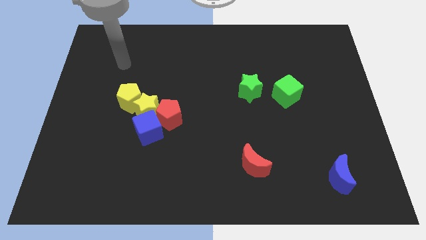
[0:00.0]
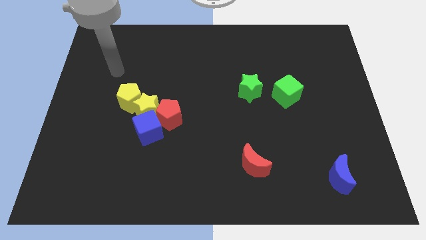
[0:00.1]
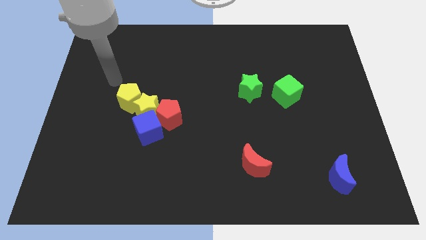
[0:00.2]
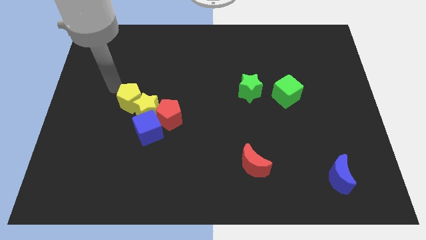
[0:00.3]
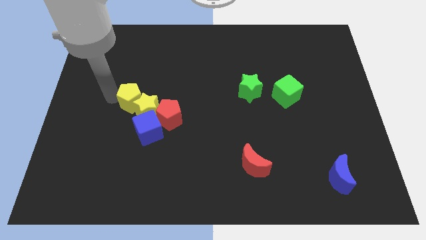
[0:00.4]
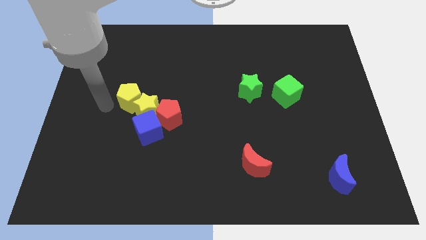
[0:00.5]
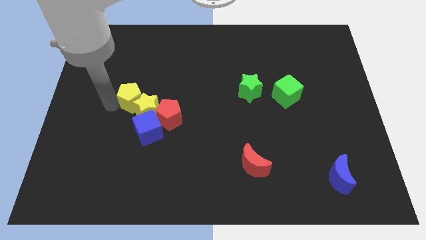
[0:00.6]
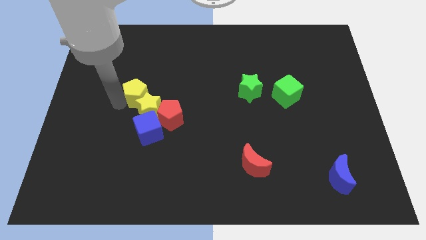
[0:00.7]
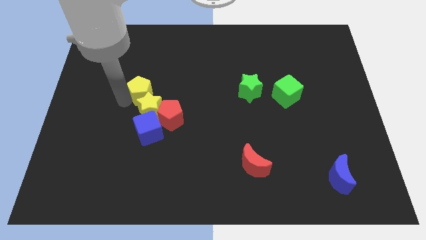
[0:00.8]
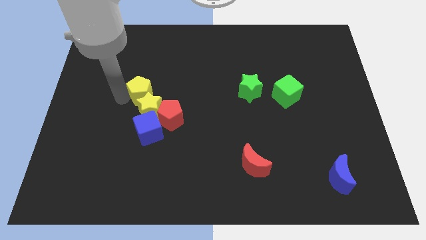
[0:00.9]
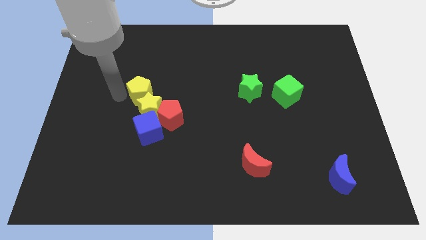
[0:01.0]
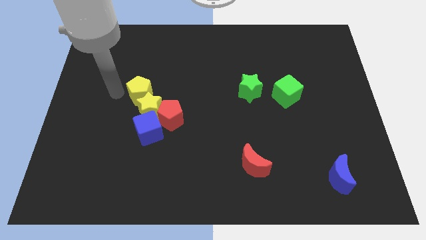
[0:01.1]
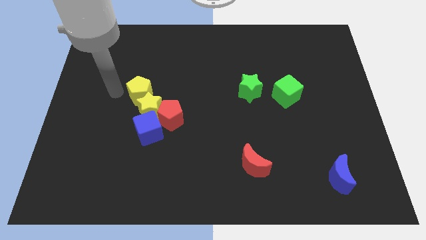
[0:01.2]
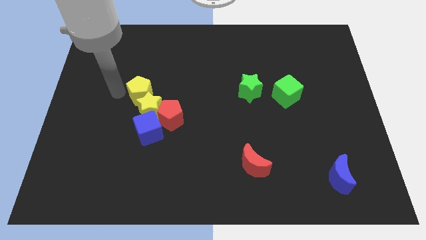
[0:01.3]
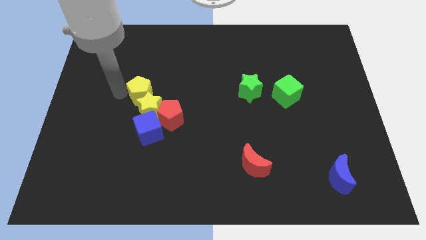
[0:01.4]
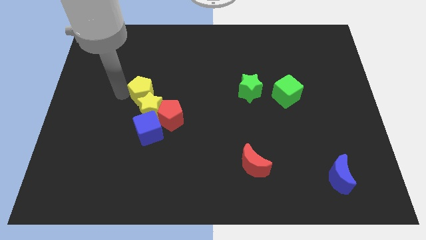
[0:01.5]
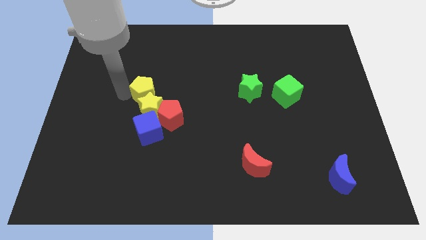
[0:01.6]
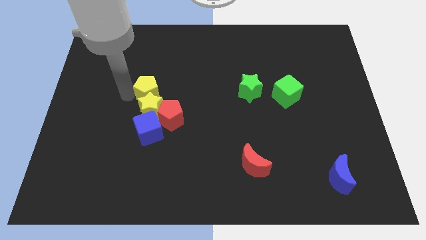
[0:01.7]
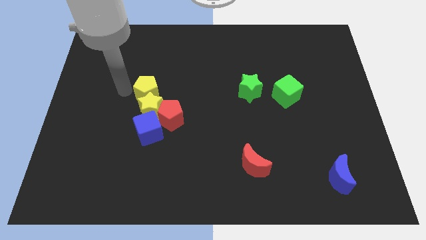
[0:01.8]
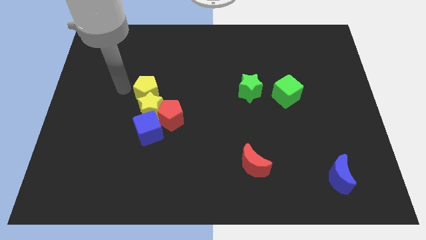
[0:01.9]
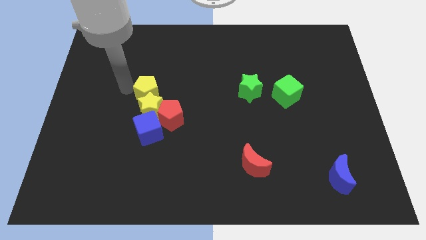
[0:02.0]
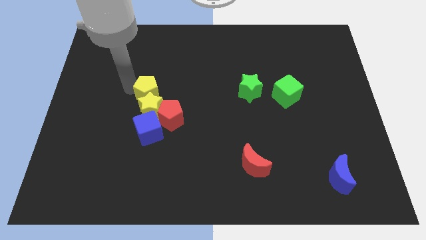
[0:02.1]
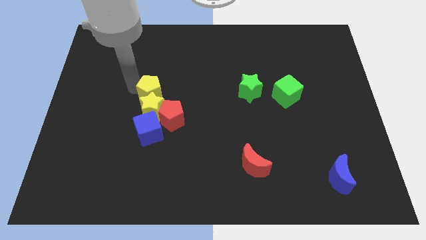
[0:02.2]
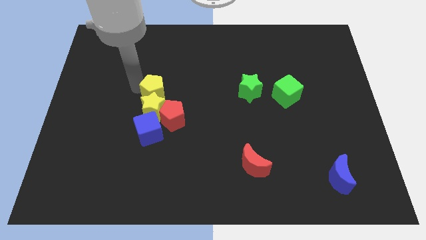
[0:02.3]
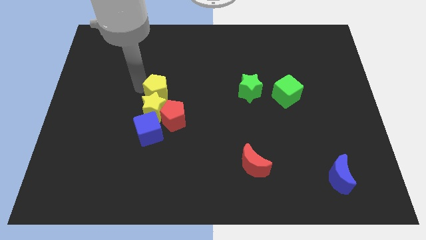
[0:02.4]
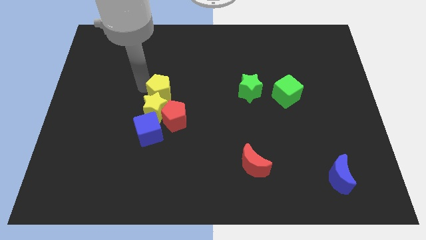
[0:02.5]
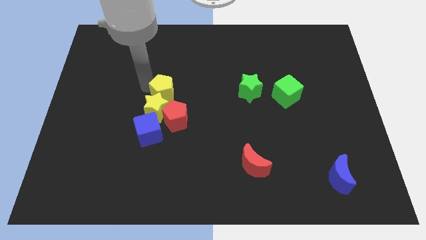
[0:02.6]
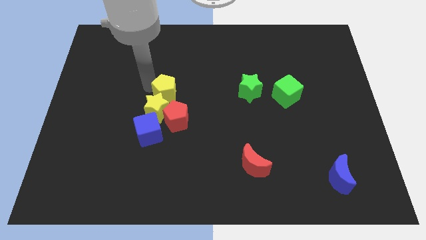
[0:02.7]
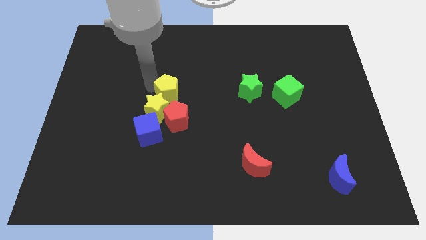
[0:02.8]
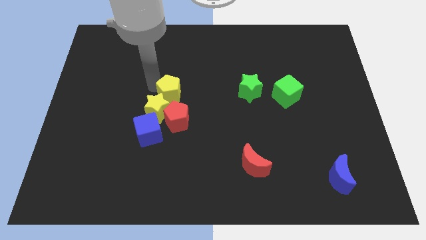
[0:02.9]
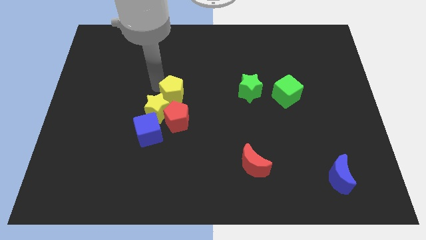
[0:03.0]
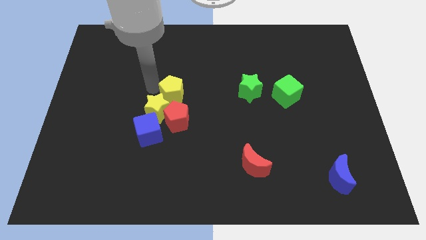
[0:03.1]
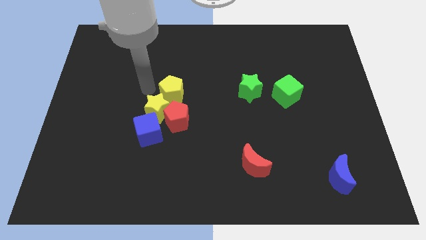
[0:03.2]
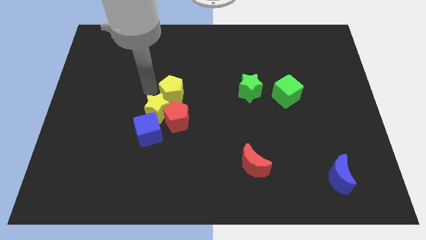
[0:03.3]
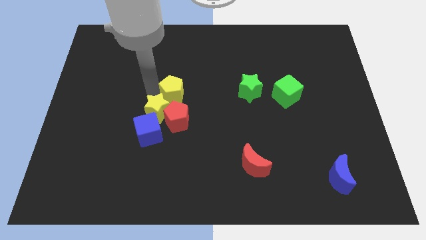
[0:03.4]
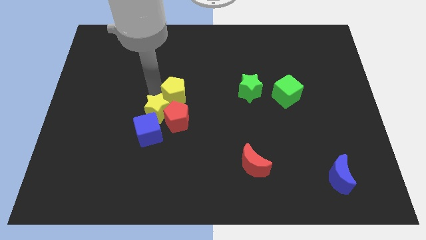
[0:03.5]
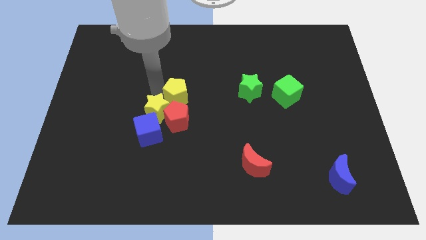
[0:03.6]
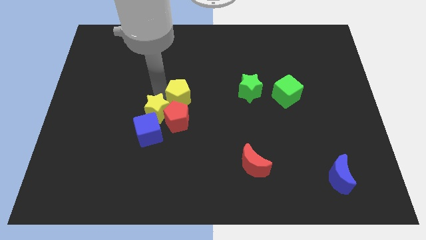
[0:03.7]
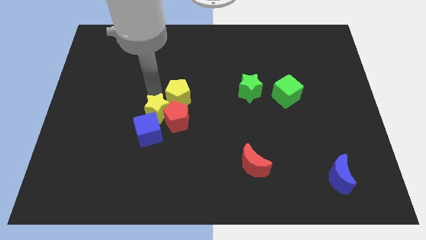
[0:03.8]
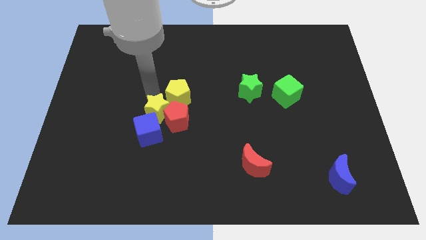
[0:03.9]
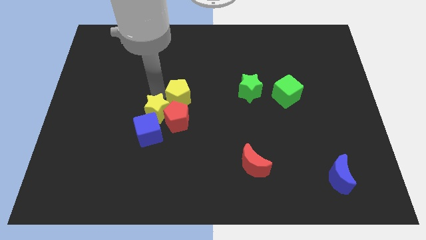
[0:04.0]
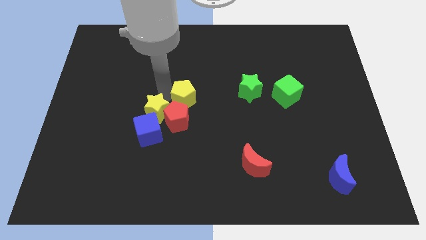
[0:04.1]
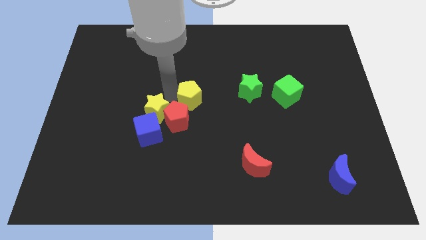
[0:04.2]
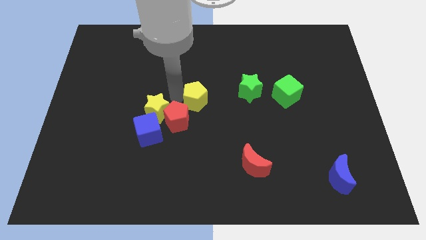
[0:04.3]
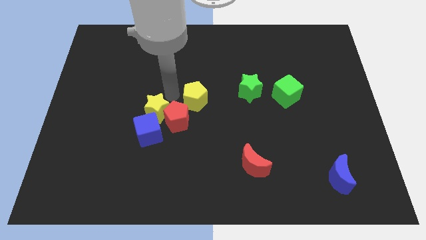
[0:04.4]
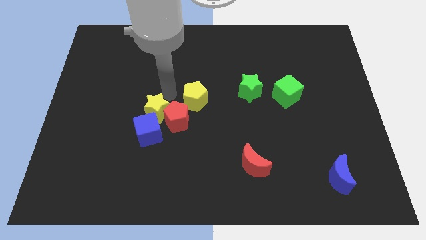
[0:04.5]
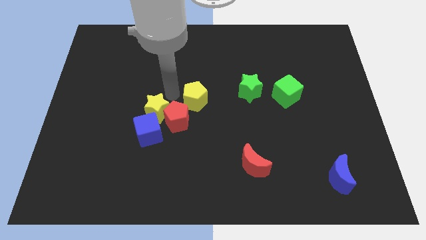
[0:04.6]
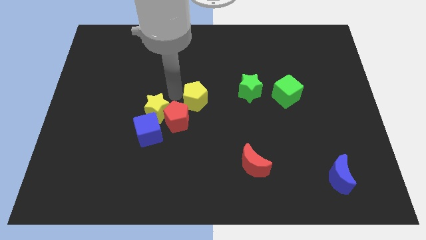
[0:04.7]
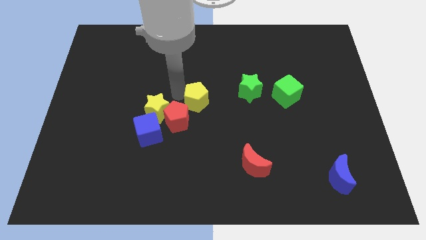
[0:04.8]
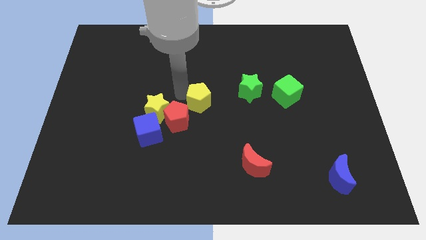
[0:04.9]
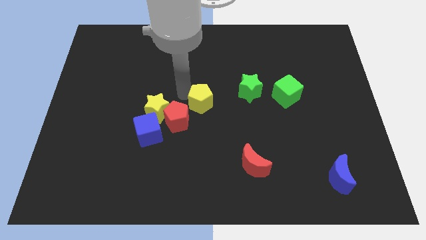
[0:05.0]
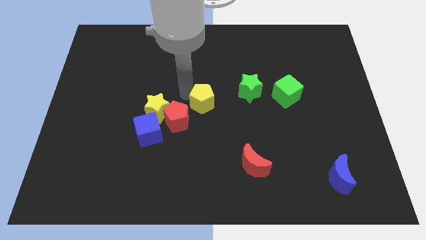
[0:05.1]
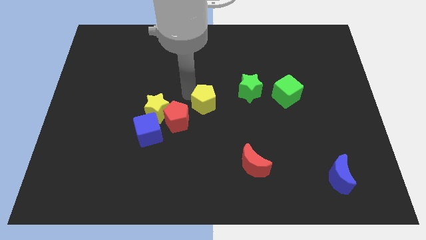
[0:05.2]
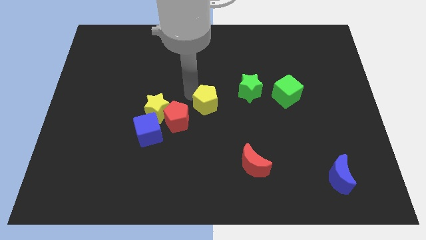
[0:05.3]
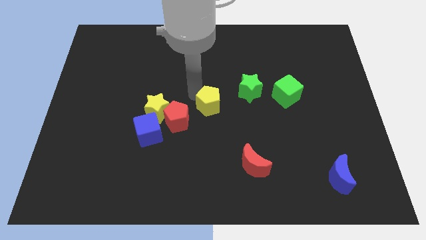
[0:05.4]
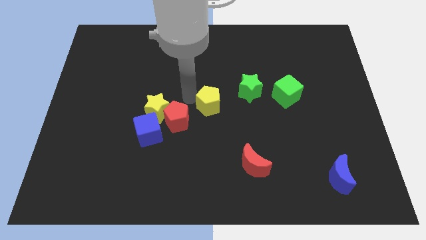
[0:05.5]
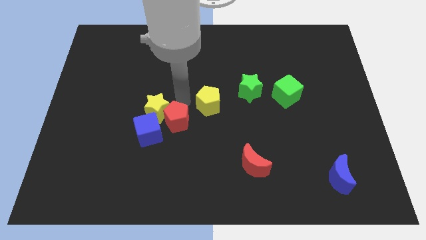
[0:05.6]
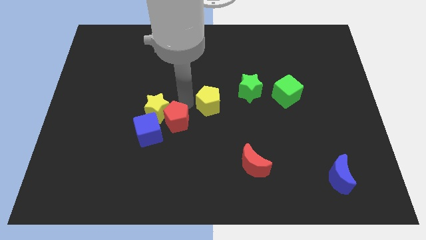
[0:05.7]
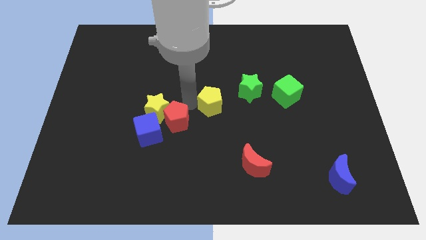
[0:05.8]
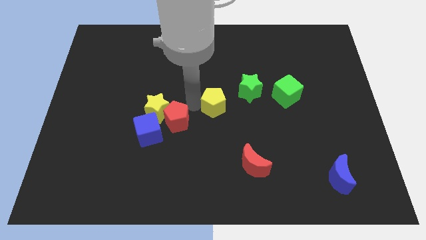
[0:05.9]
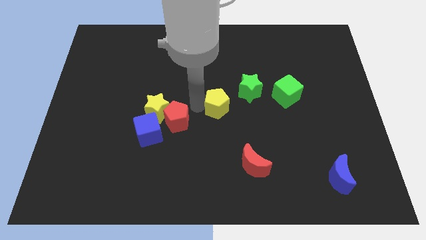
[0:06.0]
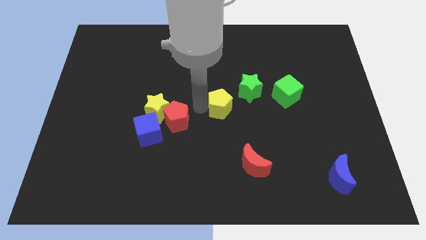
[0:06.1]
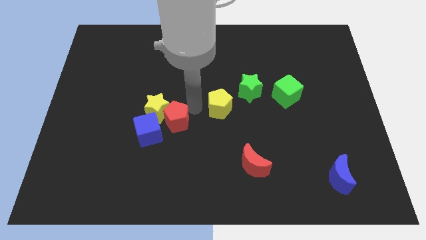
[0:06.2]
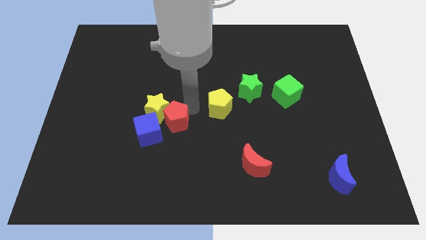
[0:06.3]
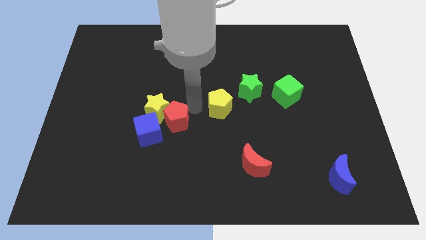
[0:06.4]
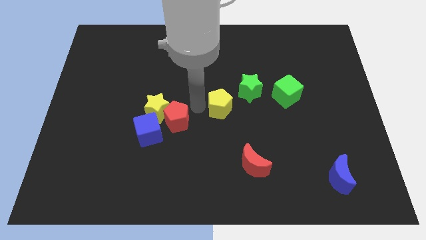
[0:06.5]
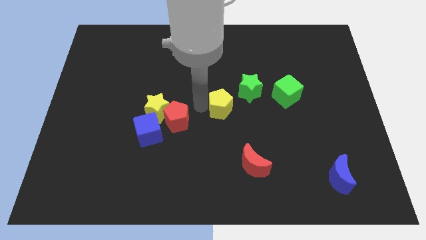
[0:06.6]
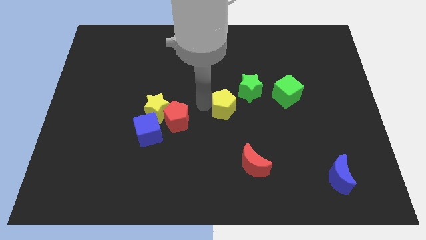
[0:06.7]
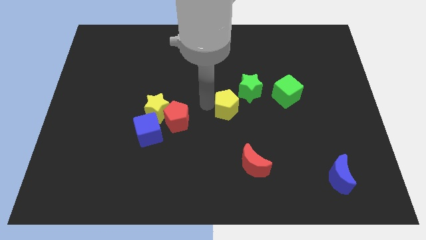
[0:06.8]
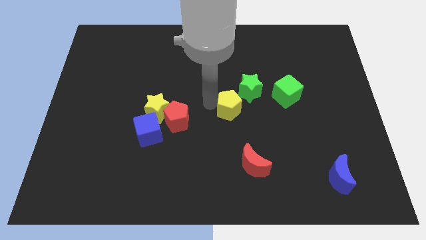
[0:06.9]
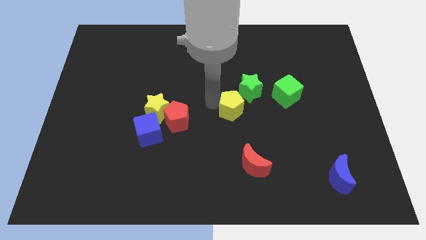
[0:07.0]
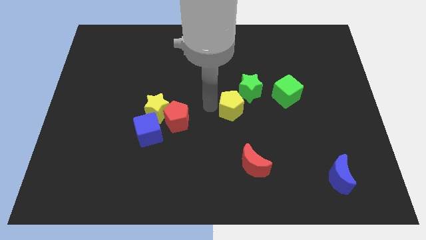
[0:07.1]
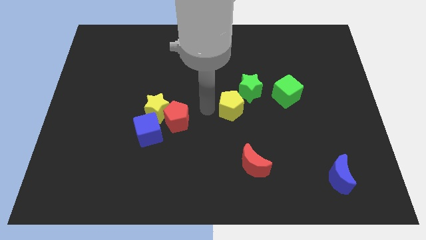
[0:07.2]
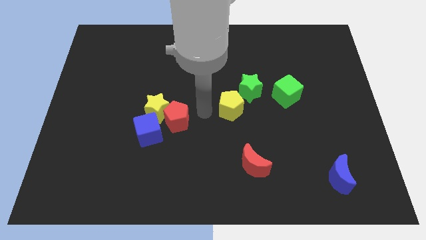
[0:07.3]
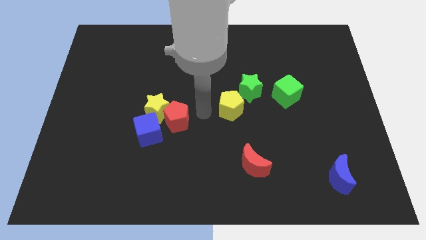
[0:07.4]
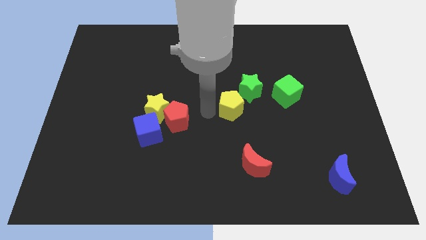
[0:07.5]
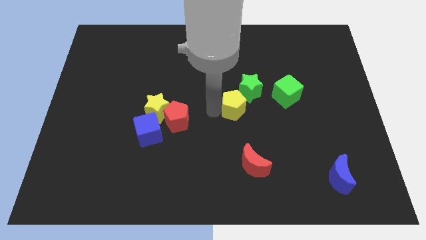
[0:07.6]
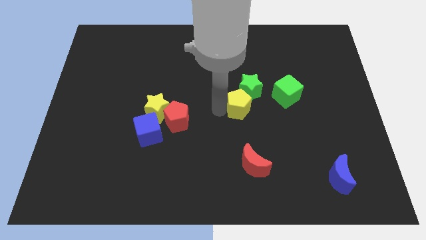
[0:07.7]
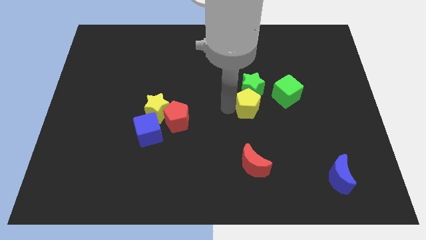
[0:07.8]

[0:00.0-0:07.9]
put the yellow pentagon to the bottom right of the green star
